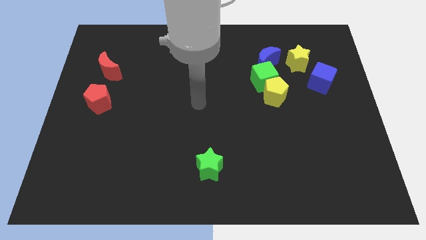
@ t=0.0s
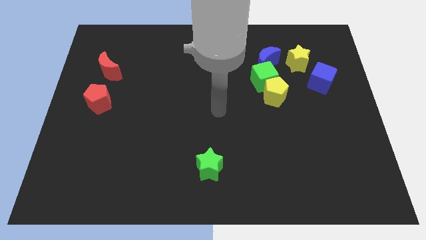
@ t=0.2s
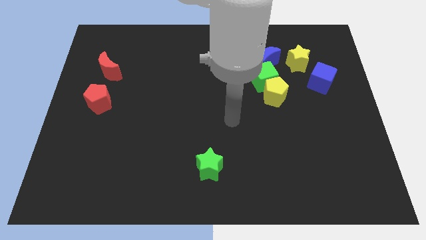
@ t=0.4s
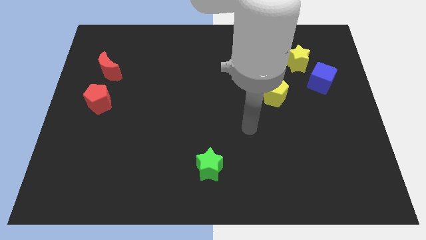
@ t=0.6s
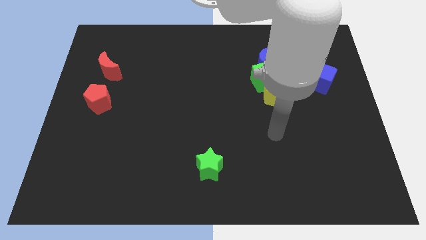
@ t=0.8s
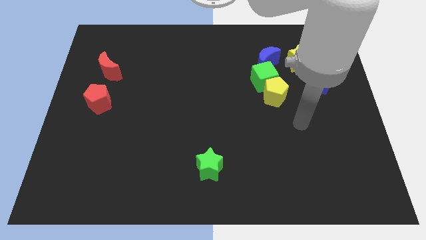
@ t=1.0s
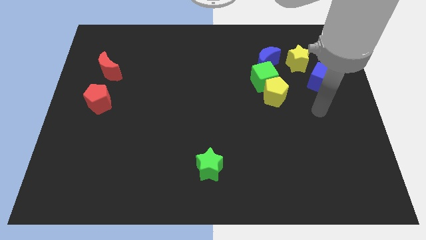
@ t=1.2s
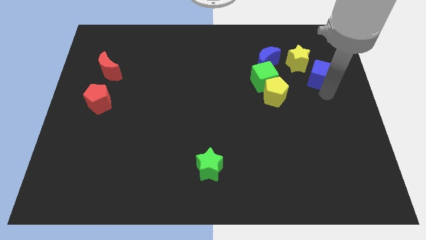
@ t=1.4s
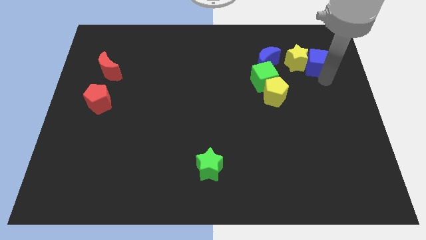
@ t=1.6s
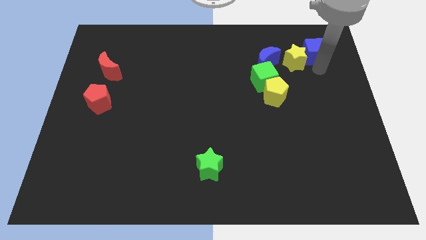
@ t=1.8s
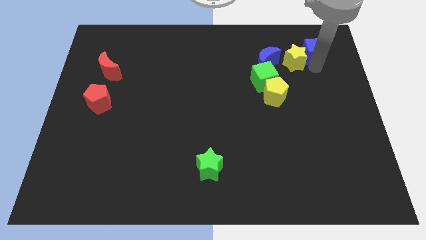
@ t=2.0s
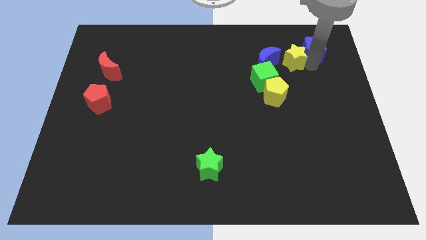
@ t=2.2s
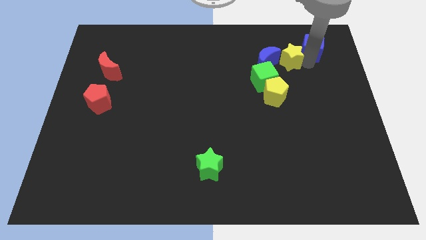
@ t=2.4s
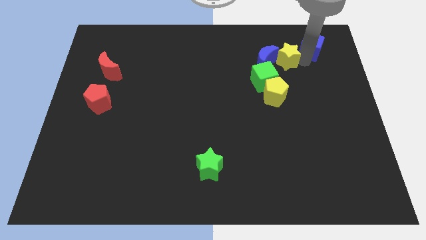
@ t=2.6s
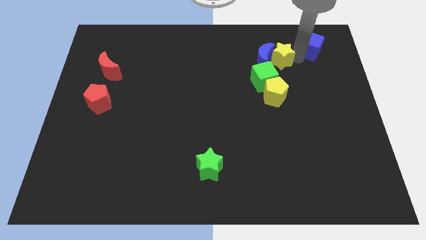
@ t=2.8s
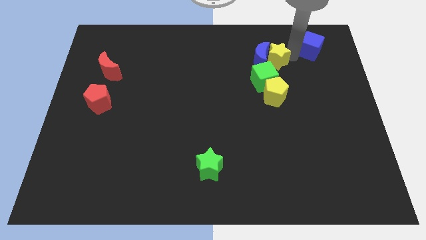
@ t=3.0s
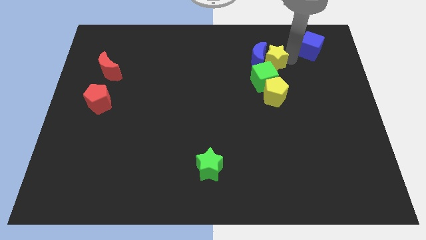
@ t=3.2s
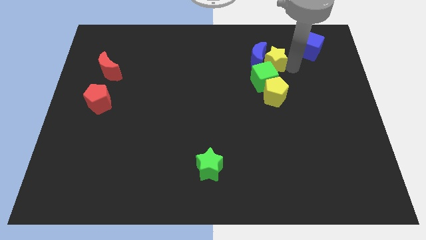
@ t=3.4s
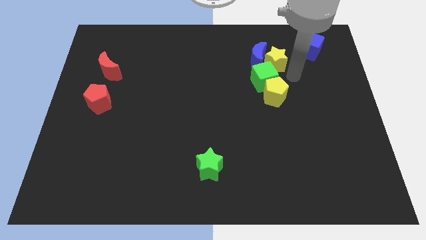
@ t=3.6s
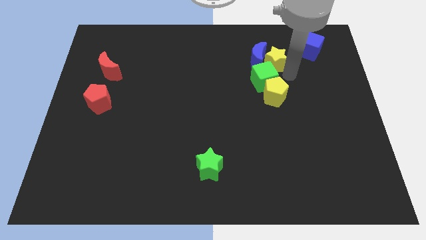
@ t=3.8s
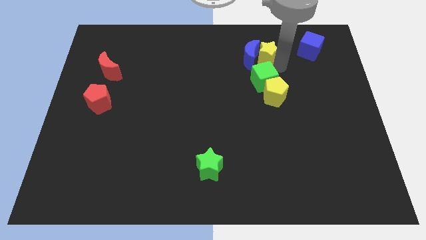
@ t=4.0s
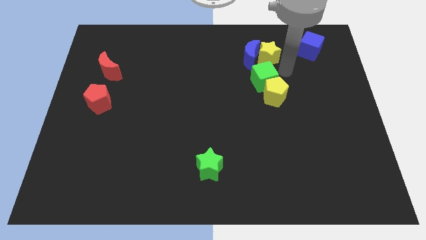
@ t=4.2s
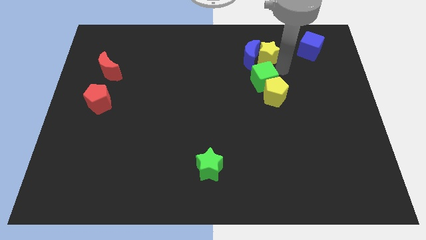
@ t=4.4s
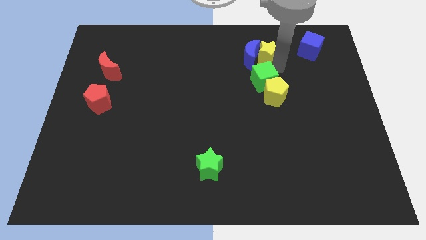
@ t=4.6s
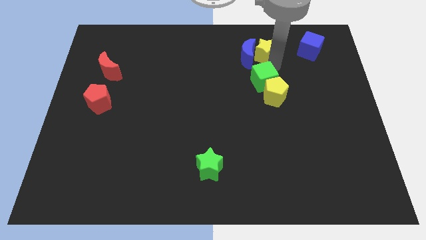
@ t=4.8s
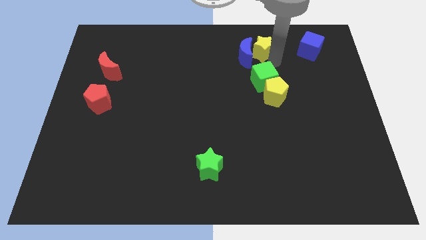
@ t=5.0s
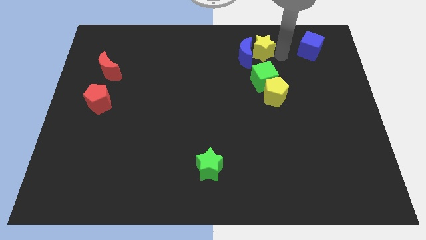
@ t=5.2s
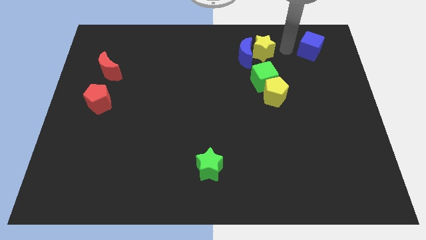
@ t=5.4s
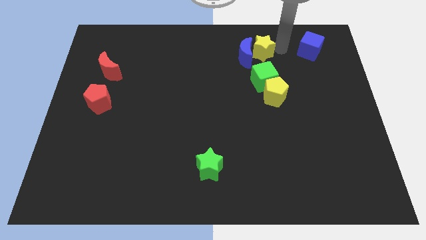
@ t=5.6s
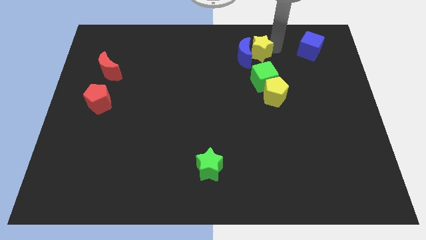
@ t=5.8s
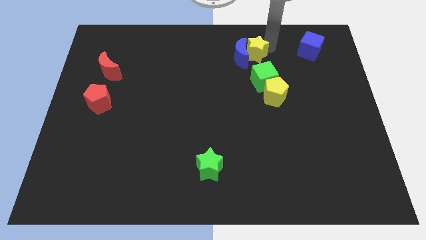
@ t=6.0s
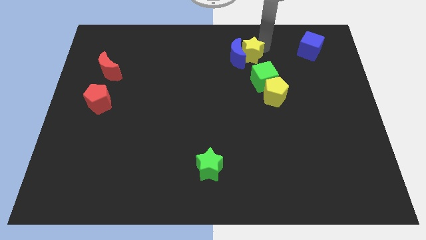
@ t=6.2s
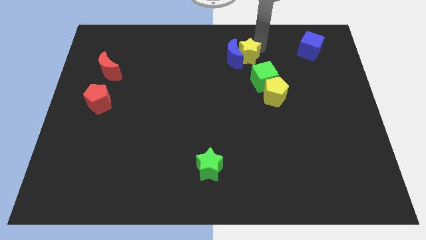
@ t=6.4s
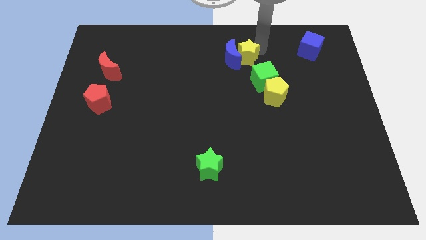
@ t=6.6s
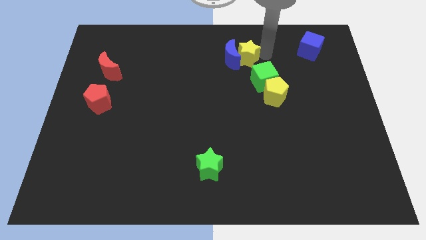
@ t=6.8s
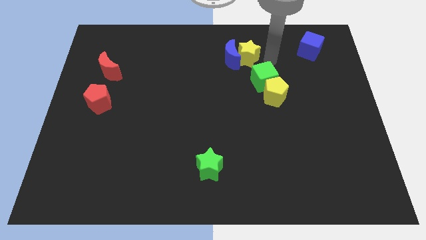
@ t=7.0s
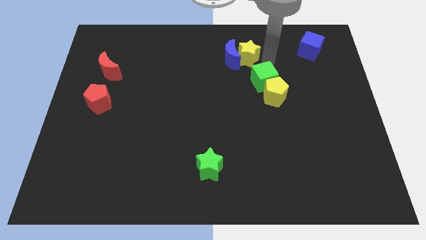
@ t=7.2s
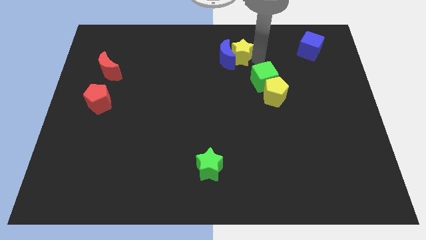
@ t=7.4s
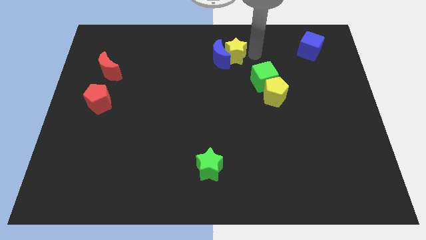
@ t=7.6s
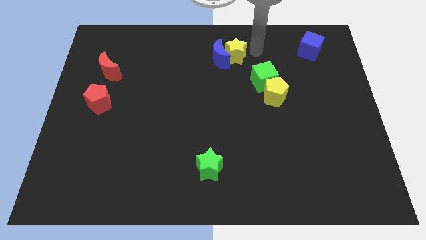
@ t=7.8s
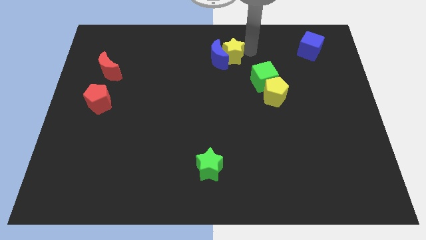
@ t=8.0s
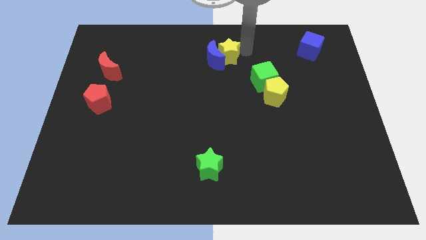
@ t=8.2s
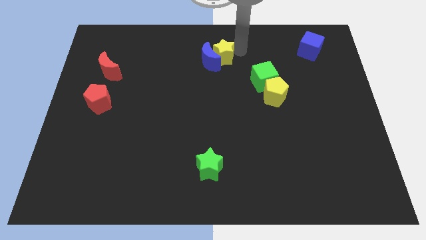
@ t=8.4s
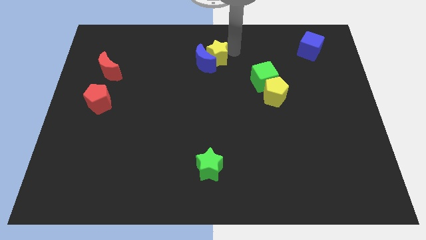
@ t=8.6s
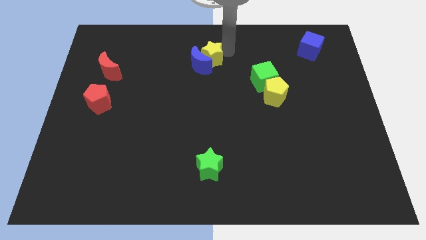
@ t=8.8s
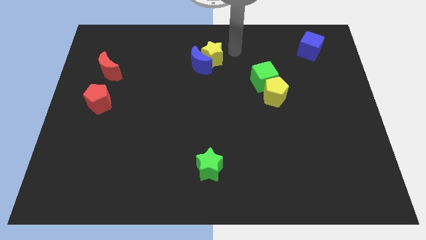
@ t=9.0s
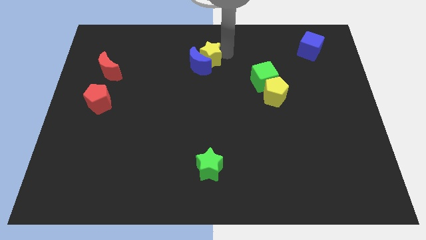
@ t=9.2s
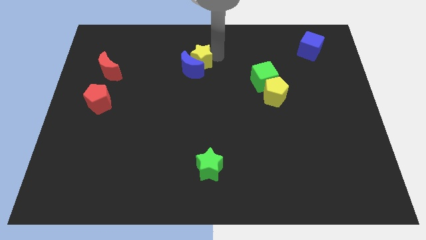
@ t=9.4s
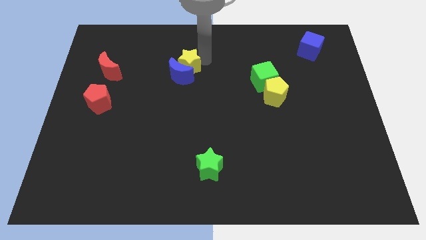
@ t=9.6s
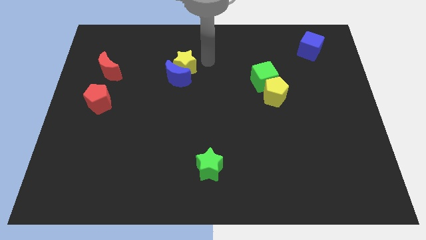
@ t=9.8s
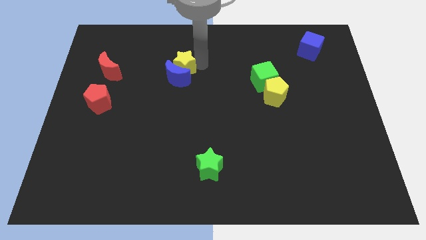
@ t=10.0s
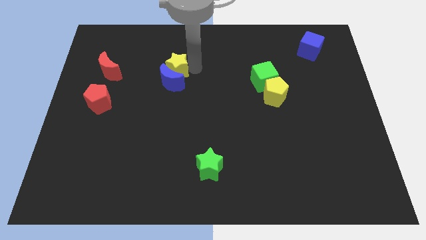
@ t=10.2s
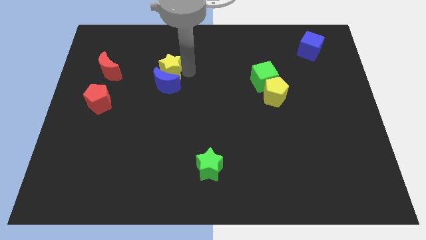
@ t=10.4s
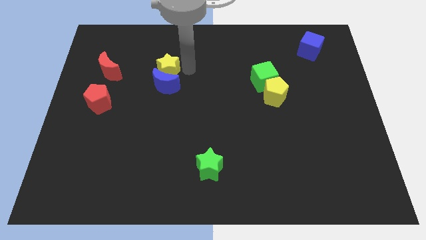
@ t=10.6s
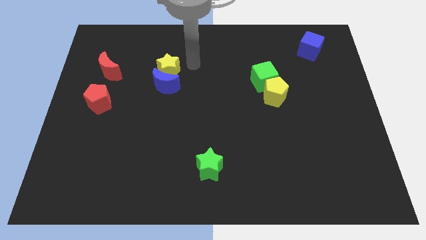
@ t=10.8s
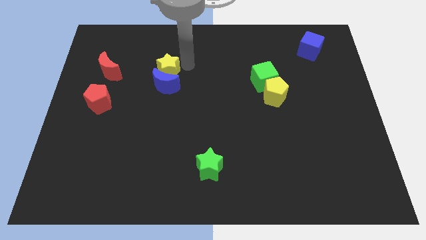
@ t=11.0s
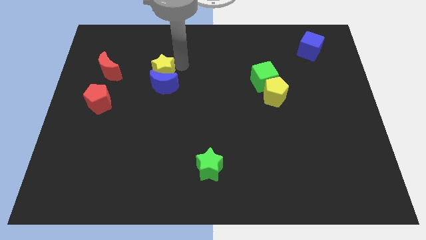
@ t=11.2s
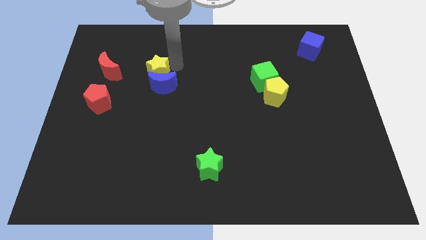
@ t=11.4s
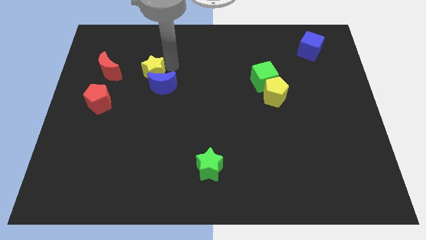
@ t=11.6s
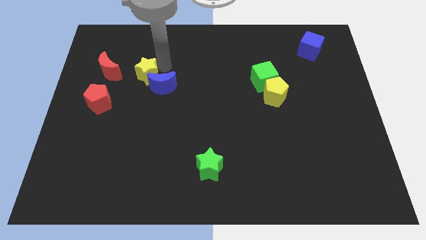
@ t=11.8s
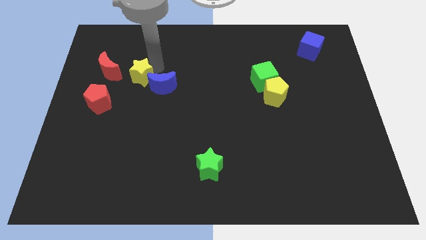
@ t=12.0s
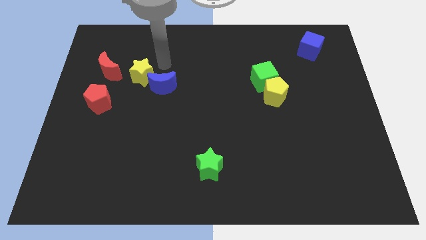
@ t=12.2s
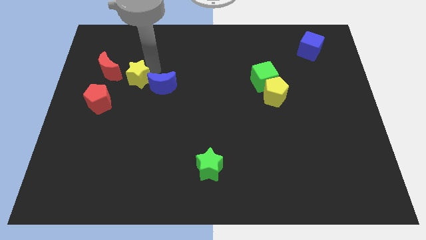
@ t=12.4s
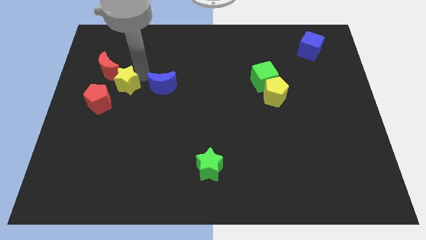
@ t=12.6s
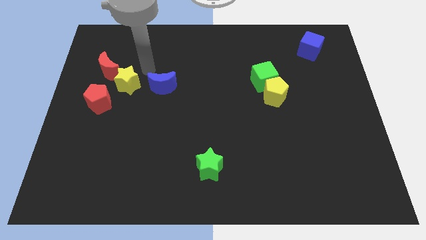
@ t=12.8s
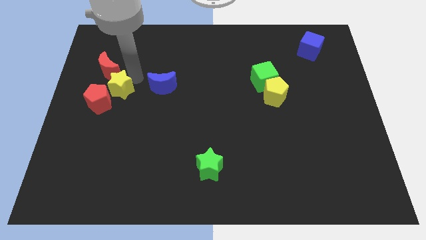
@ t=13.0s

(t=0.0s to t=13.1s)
slide the yellow star next to the red pentagon

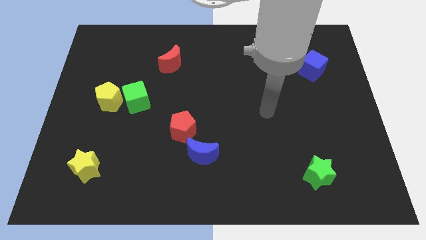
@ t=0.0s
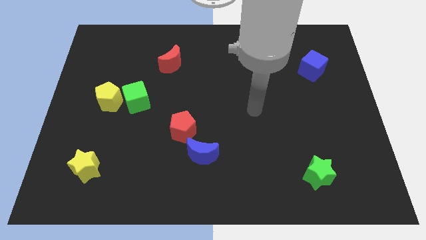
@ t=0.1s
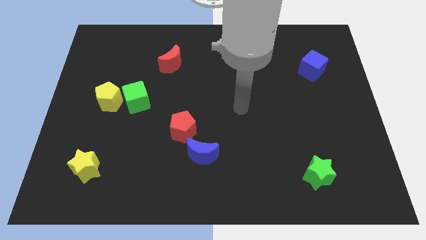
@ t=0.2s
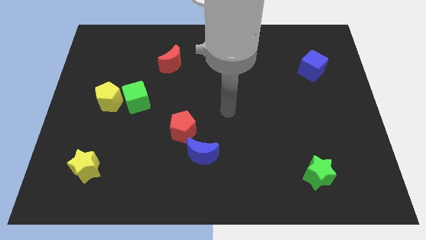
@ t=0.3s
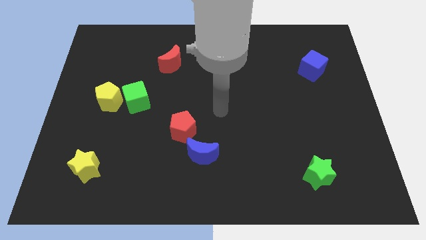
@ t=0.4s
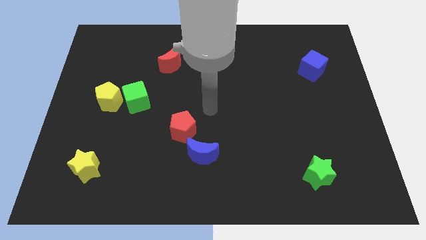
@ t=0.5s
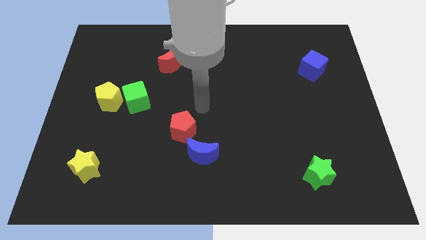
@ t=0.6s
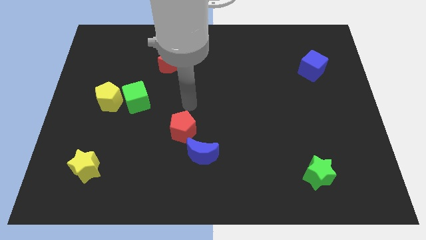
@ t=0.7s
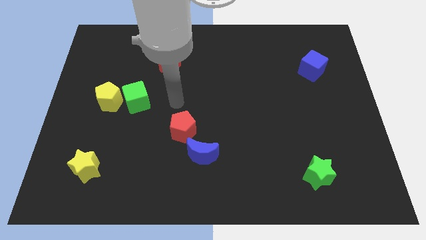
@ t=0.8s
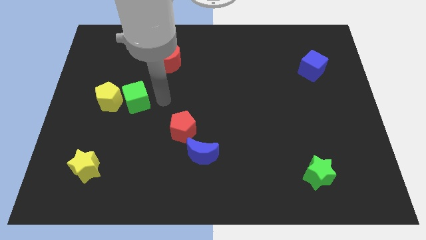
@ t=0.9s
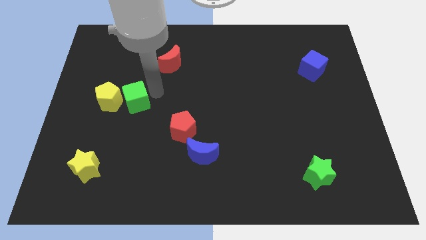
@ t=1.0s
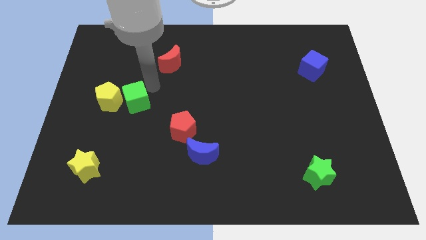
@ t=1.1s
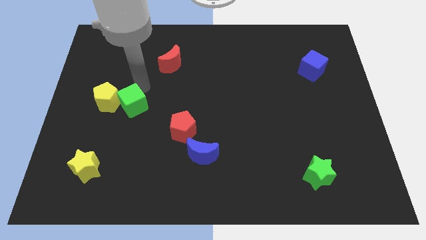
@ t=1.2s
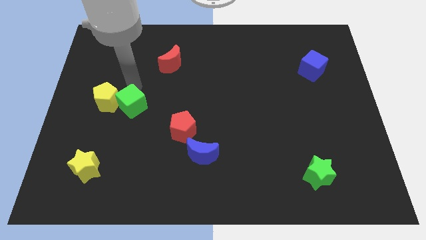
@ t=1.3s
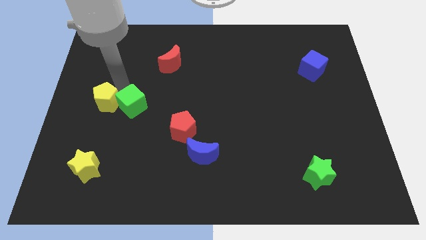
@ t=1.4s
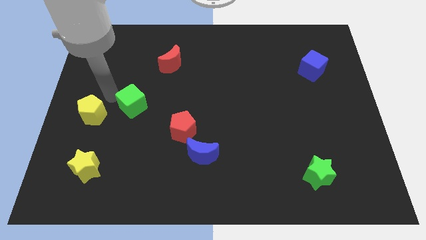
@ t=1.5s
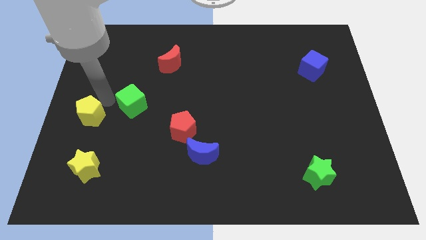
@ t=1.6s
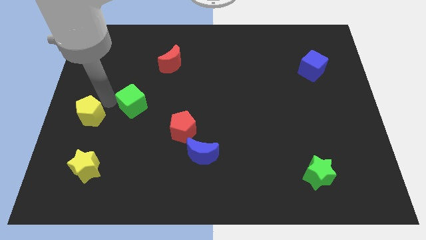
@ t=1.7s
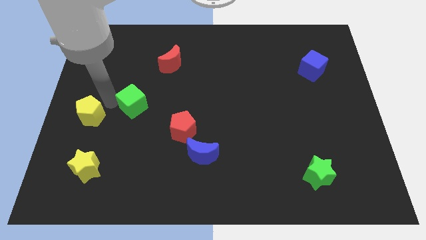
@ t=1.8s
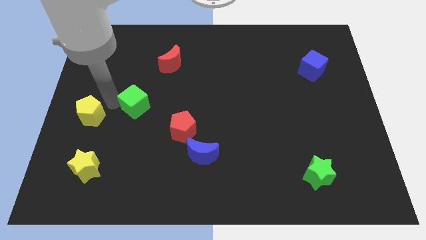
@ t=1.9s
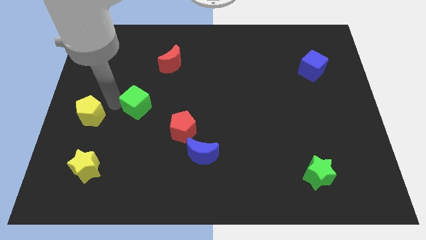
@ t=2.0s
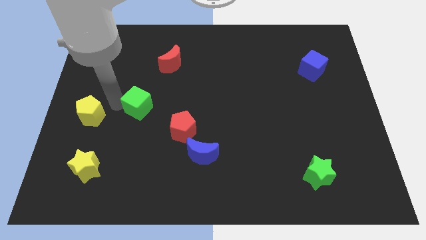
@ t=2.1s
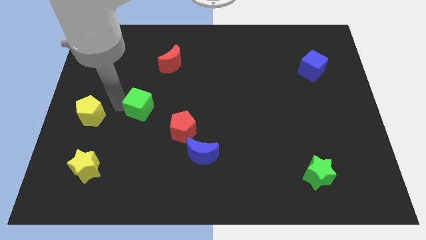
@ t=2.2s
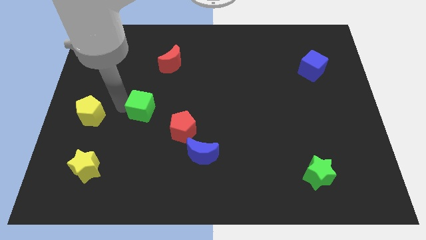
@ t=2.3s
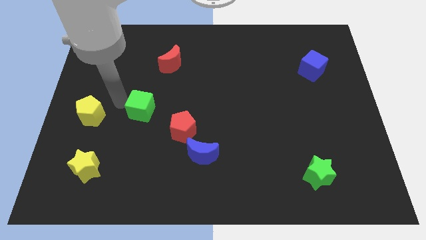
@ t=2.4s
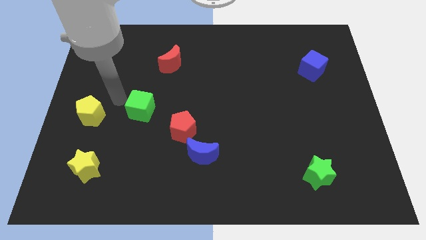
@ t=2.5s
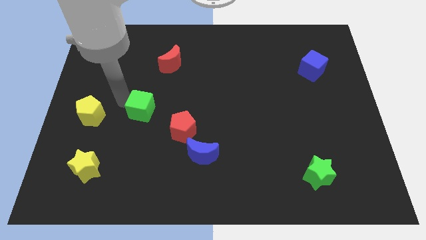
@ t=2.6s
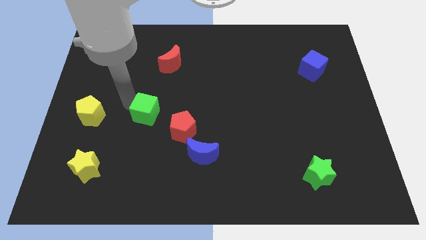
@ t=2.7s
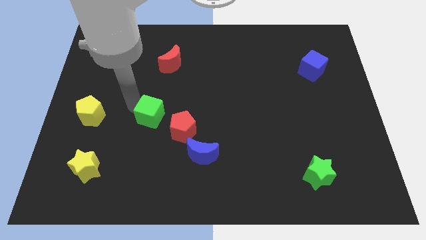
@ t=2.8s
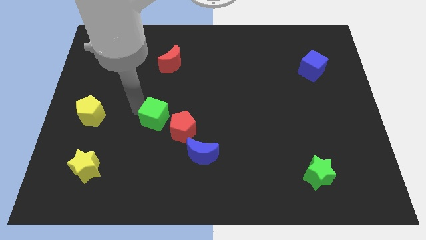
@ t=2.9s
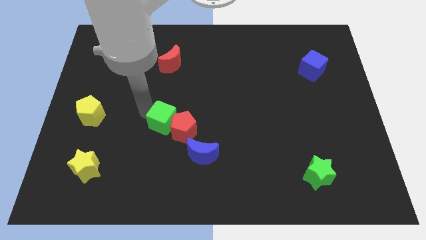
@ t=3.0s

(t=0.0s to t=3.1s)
slide the green cube next to the red pentagon
